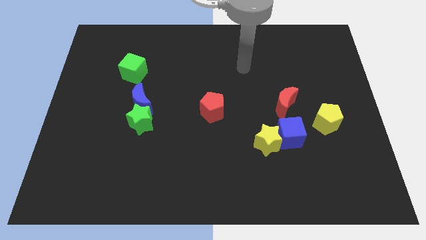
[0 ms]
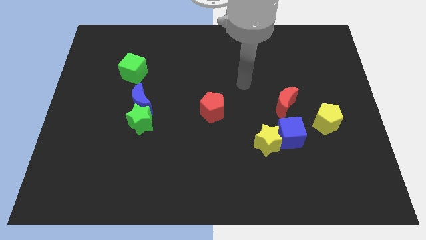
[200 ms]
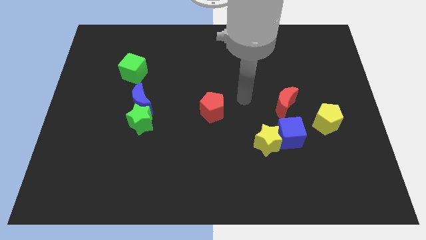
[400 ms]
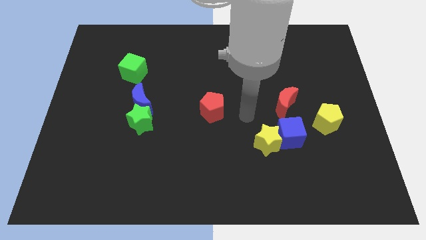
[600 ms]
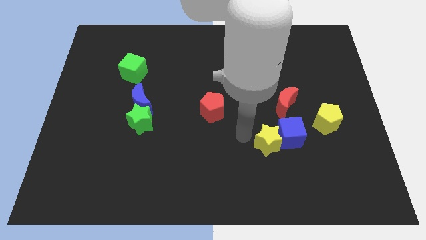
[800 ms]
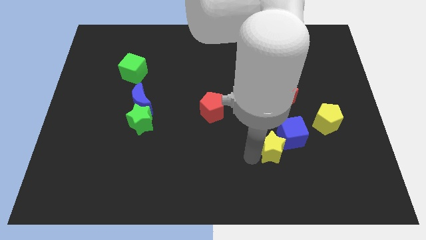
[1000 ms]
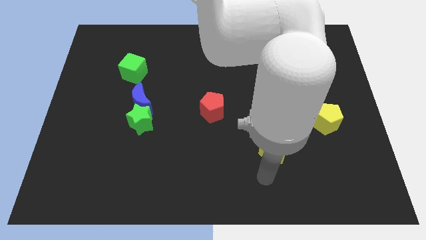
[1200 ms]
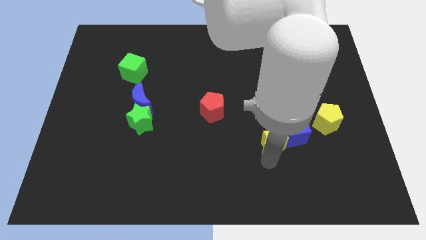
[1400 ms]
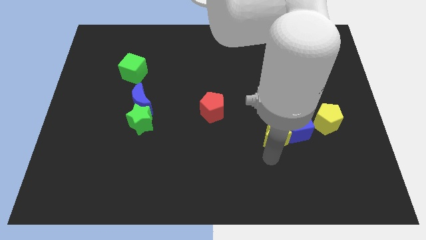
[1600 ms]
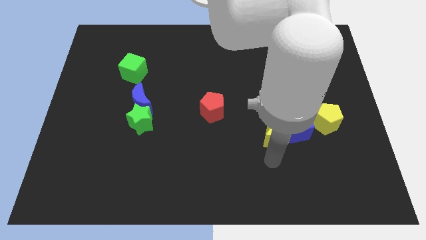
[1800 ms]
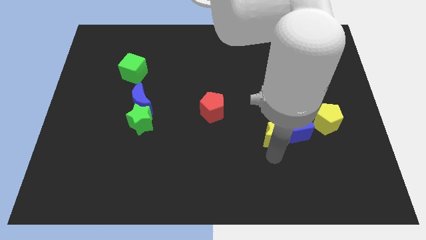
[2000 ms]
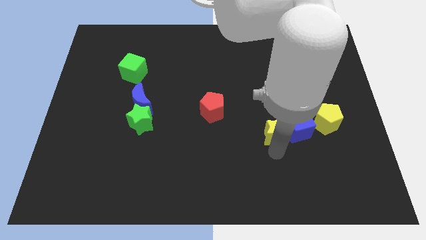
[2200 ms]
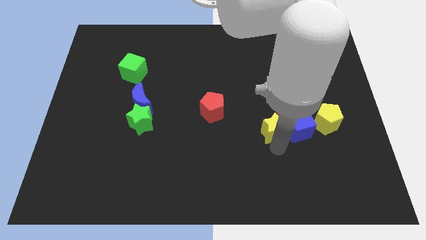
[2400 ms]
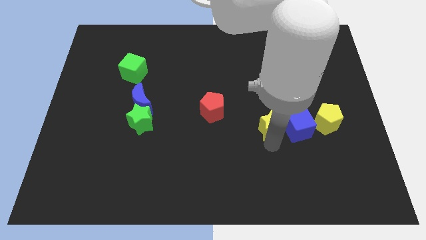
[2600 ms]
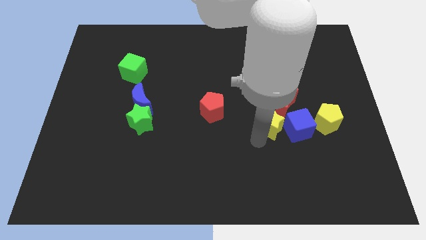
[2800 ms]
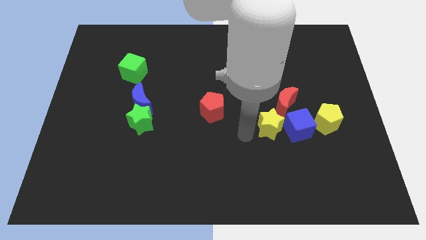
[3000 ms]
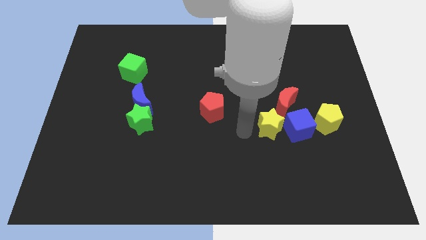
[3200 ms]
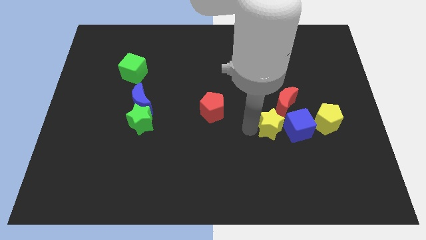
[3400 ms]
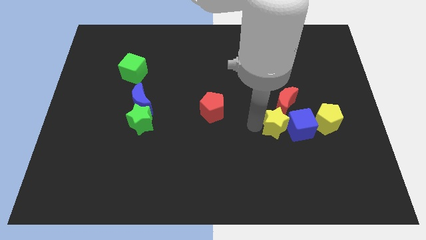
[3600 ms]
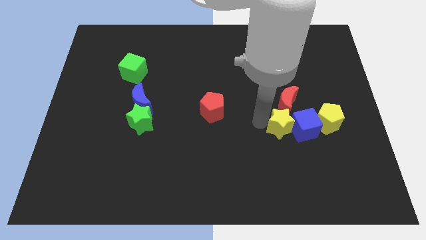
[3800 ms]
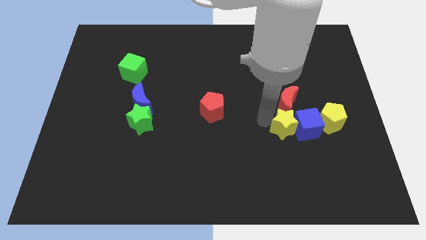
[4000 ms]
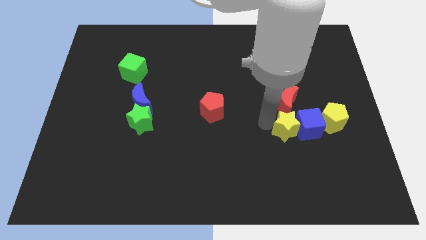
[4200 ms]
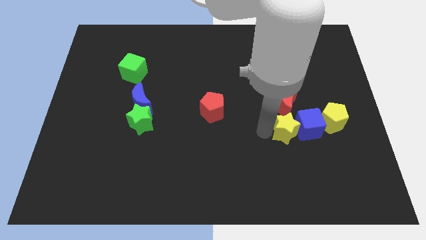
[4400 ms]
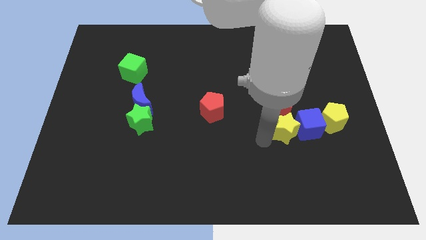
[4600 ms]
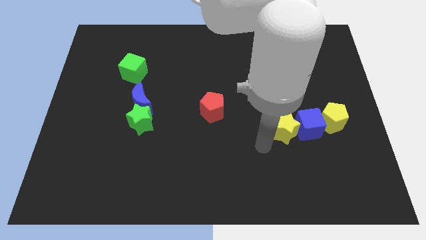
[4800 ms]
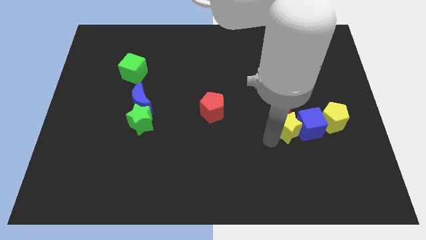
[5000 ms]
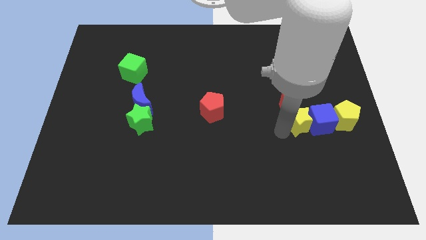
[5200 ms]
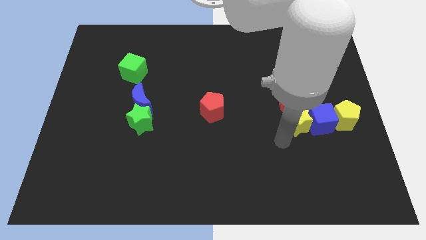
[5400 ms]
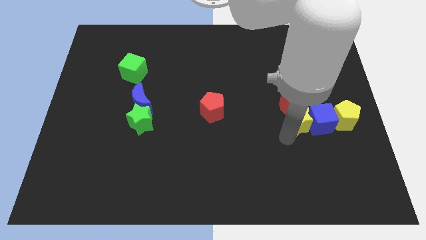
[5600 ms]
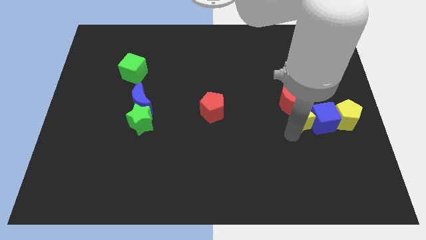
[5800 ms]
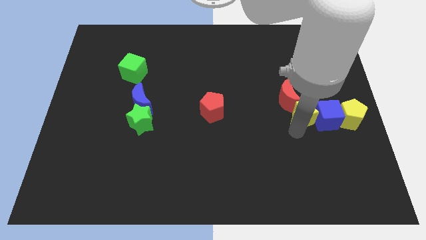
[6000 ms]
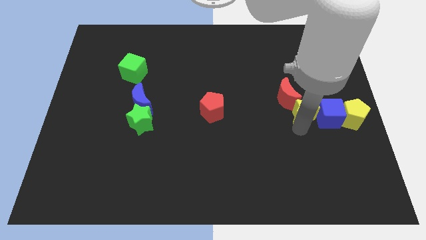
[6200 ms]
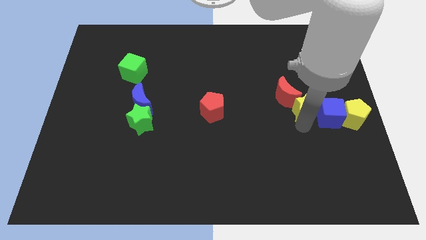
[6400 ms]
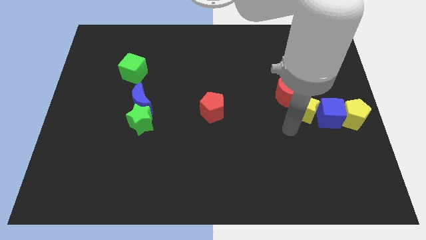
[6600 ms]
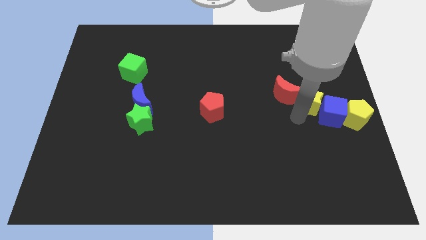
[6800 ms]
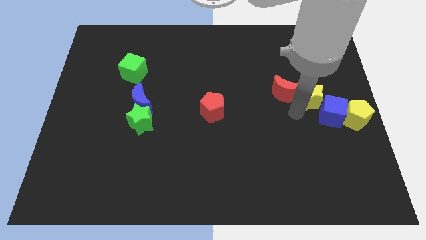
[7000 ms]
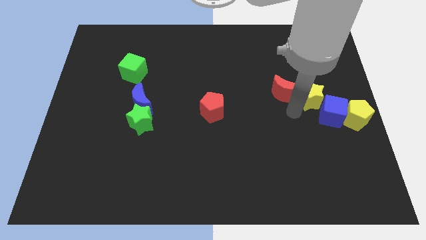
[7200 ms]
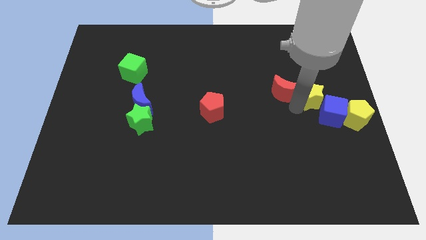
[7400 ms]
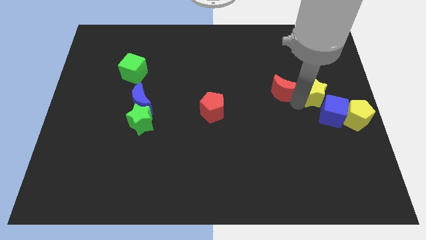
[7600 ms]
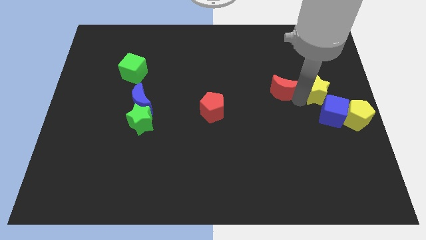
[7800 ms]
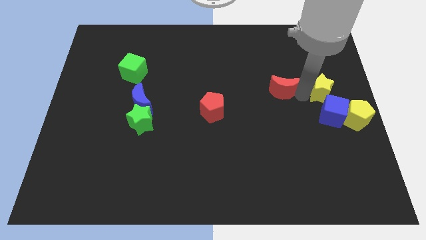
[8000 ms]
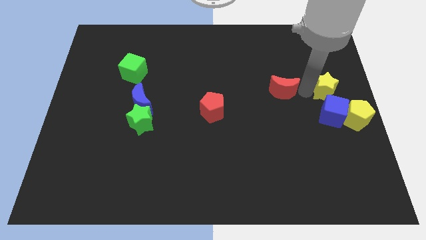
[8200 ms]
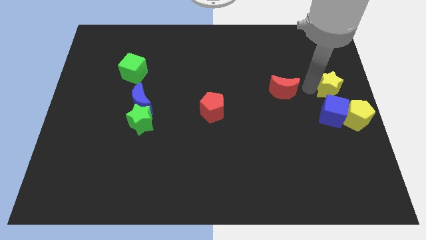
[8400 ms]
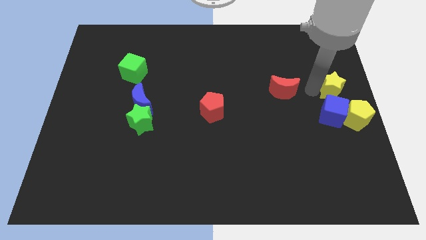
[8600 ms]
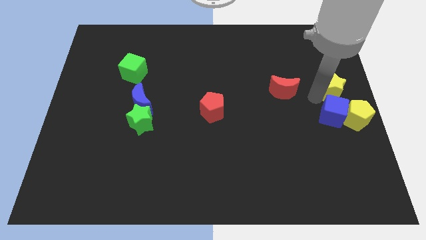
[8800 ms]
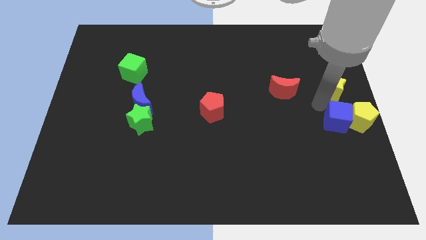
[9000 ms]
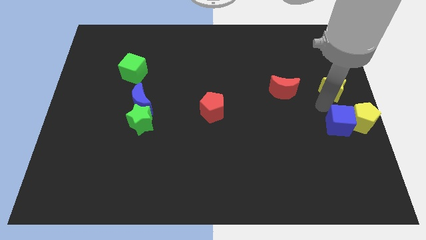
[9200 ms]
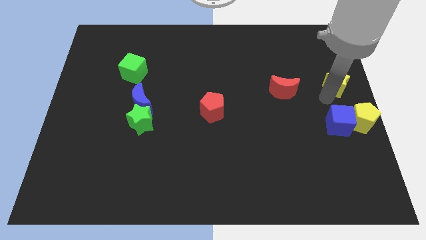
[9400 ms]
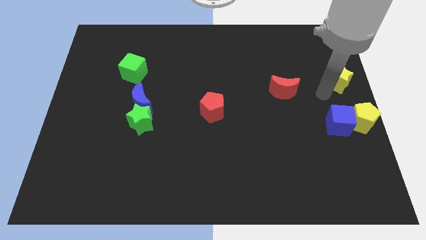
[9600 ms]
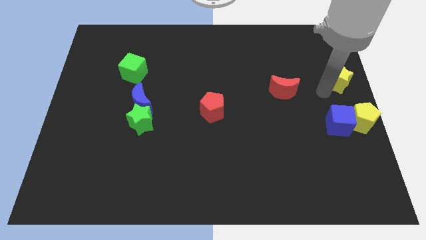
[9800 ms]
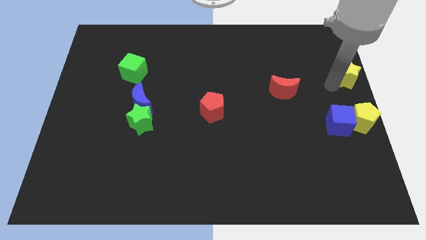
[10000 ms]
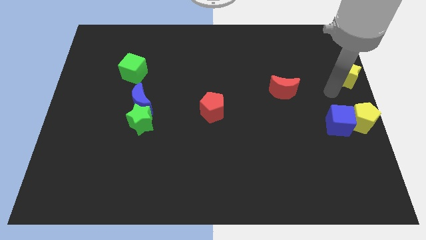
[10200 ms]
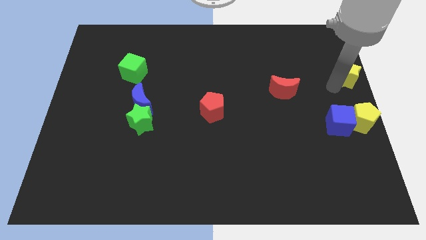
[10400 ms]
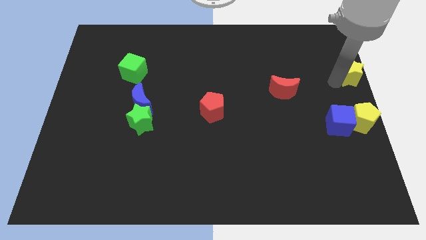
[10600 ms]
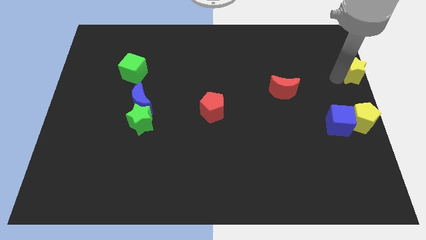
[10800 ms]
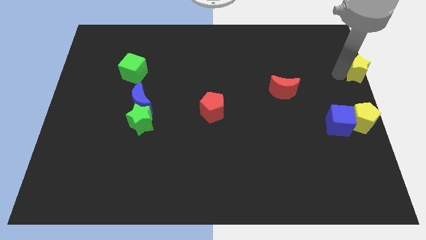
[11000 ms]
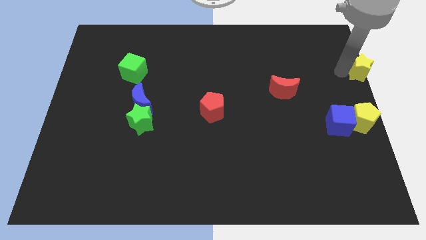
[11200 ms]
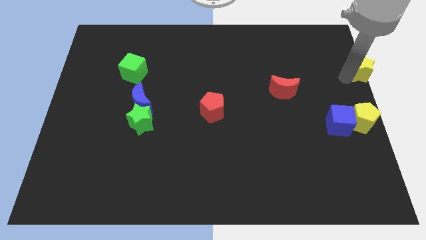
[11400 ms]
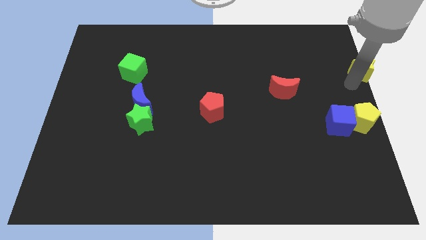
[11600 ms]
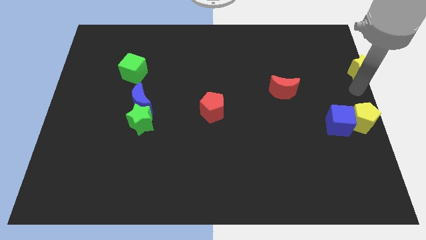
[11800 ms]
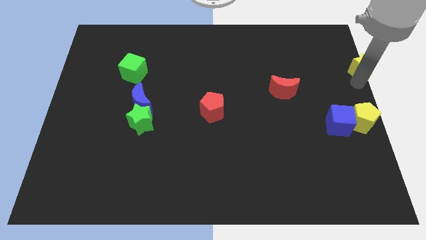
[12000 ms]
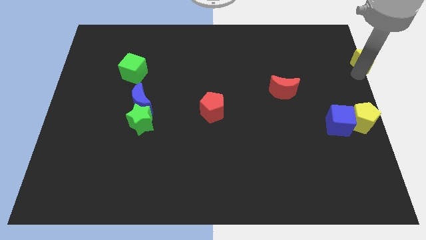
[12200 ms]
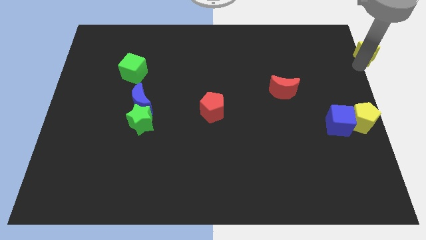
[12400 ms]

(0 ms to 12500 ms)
slide the yellow star to the upper right corner

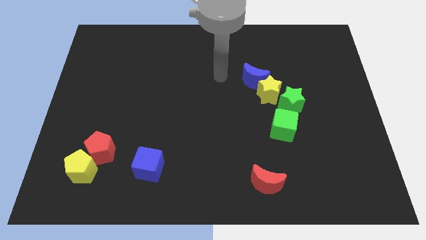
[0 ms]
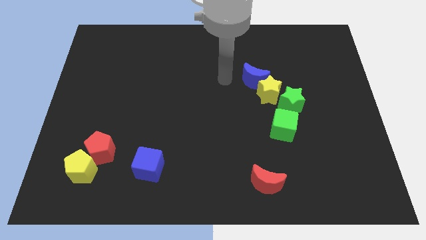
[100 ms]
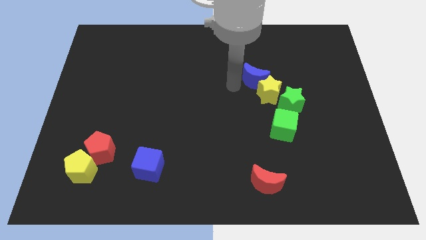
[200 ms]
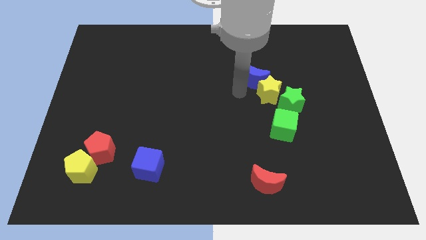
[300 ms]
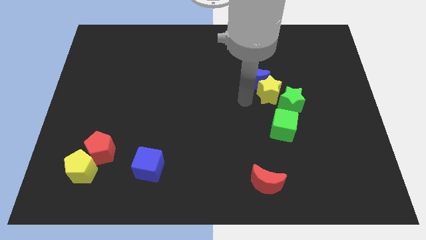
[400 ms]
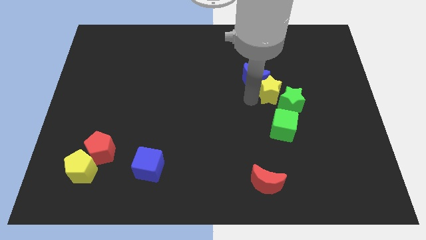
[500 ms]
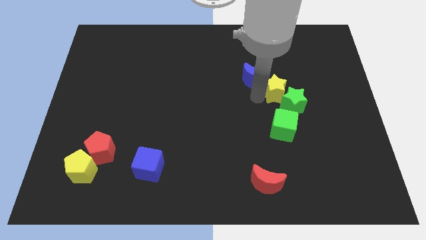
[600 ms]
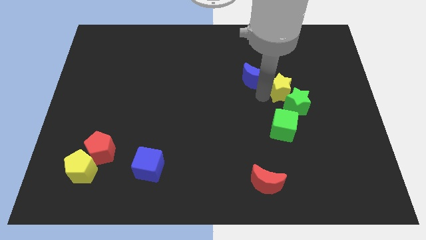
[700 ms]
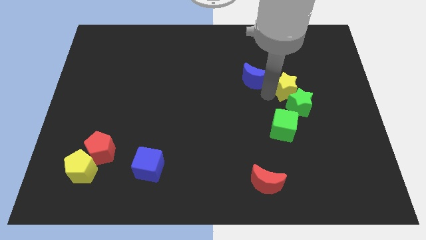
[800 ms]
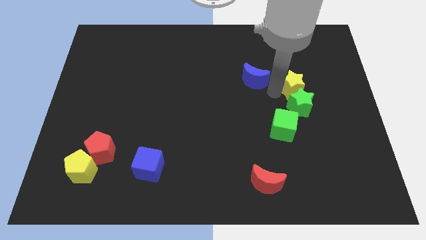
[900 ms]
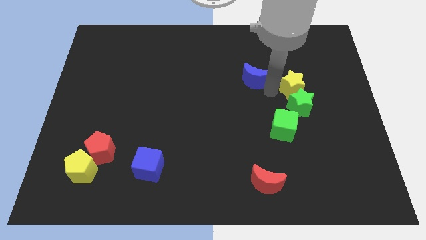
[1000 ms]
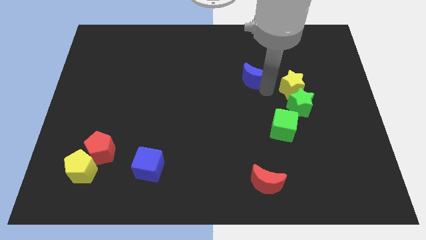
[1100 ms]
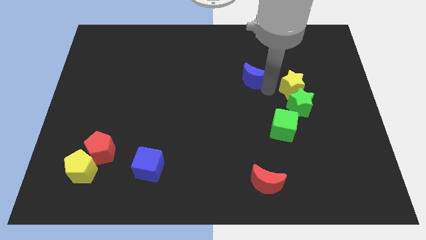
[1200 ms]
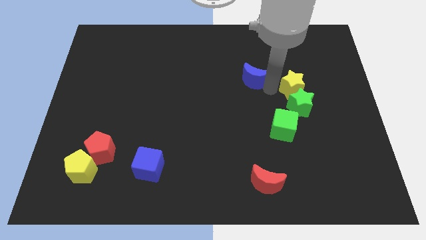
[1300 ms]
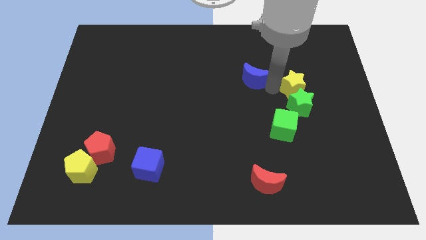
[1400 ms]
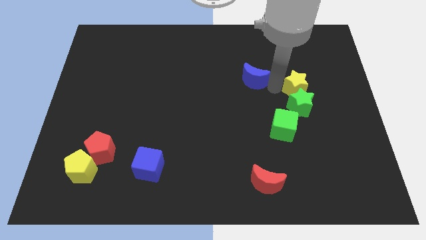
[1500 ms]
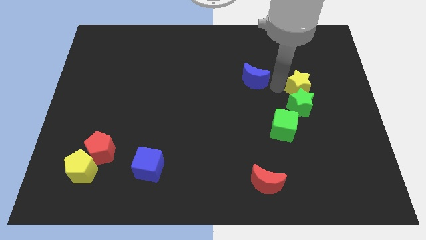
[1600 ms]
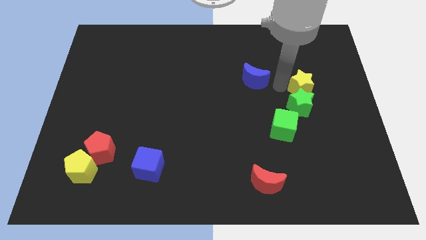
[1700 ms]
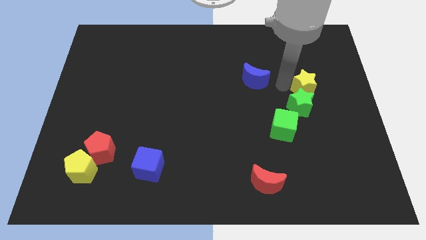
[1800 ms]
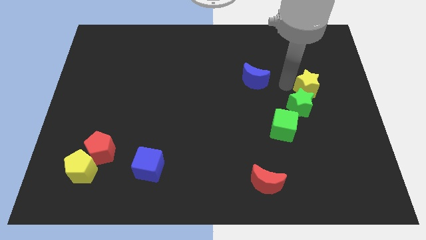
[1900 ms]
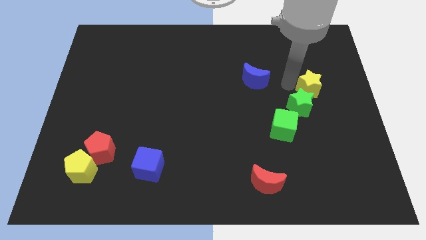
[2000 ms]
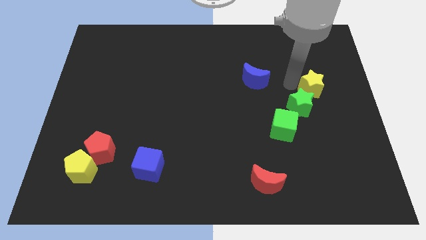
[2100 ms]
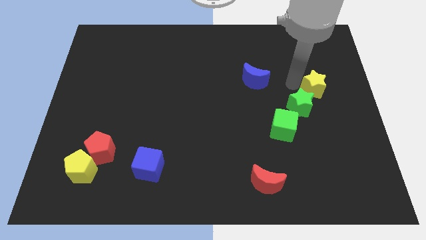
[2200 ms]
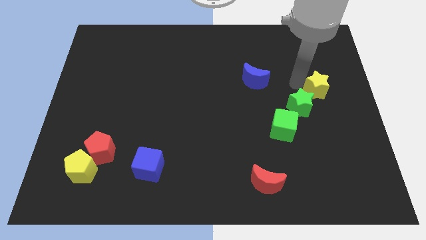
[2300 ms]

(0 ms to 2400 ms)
push the yellow star to the right side
